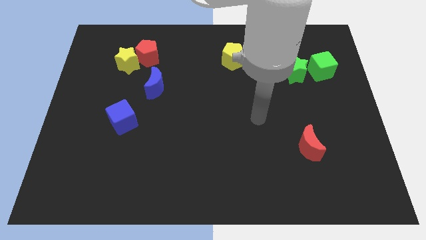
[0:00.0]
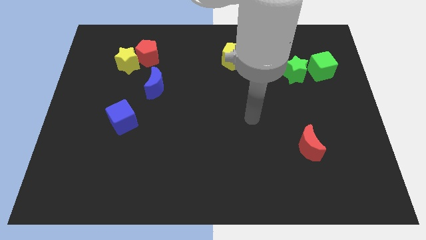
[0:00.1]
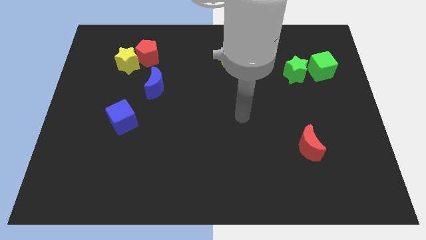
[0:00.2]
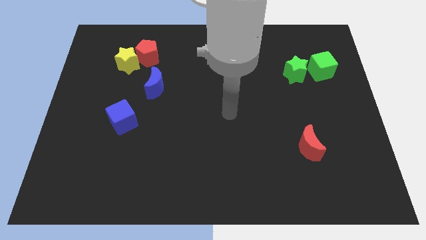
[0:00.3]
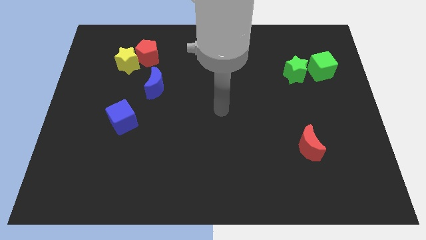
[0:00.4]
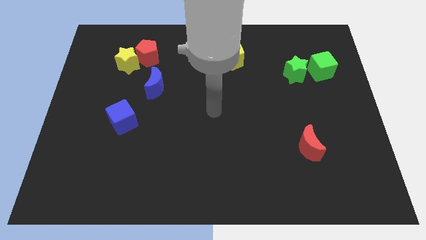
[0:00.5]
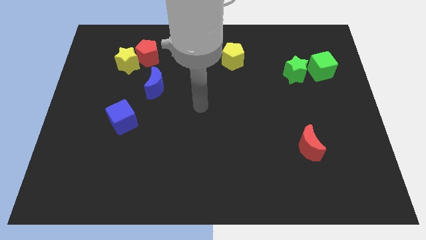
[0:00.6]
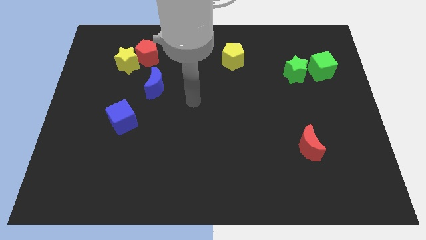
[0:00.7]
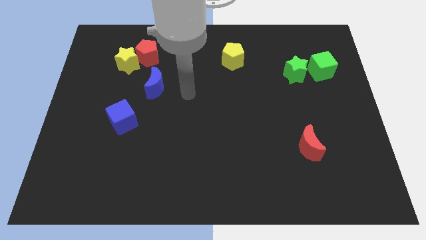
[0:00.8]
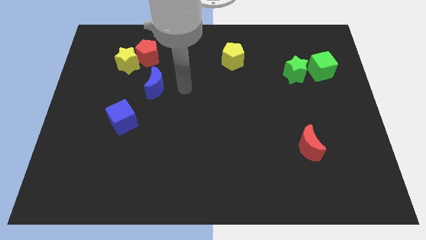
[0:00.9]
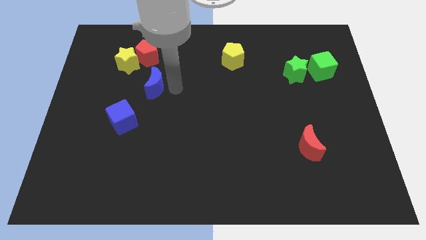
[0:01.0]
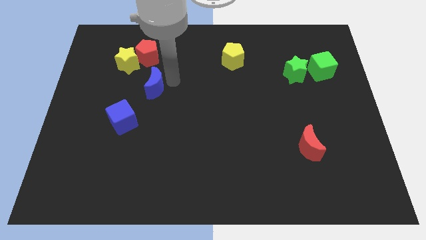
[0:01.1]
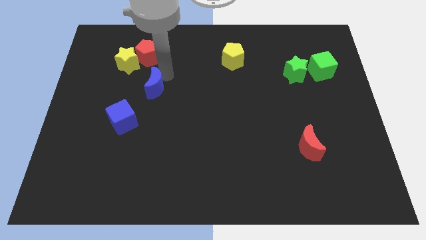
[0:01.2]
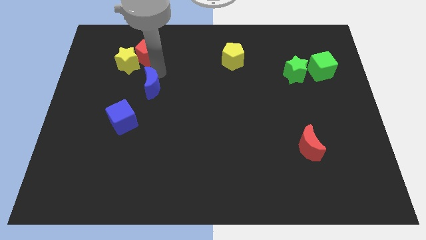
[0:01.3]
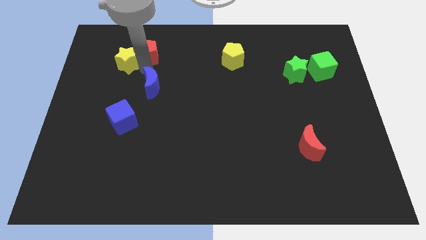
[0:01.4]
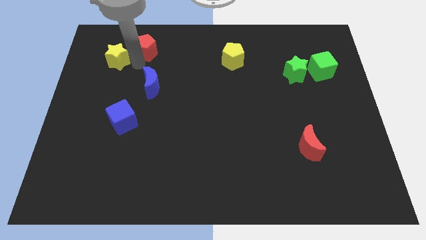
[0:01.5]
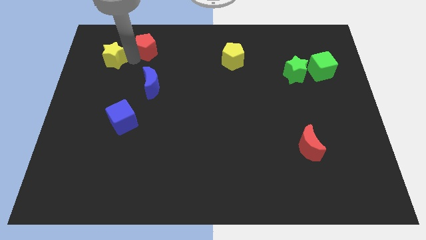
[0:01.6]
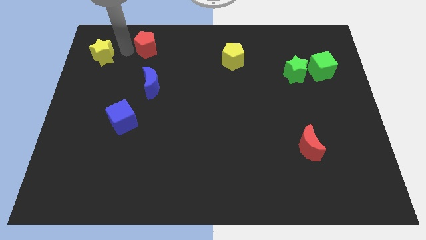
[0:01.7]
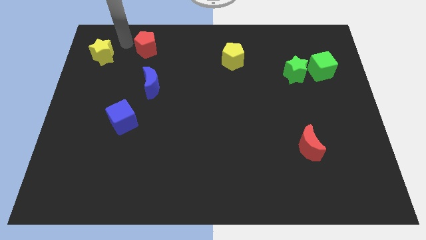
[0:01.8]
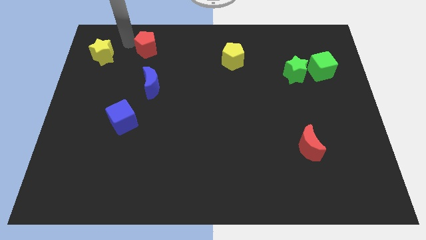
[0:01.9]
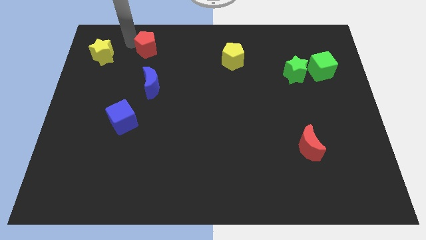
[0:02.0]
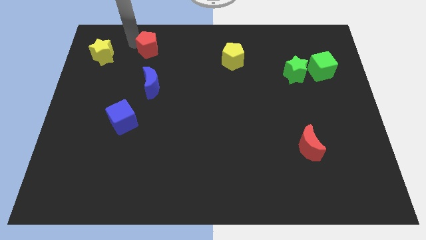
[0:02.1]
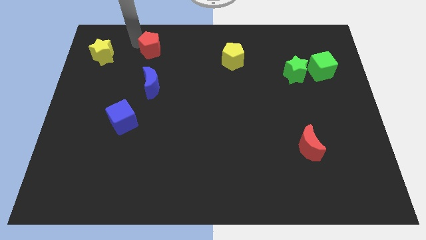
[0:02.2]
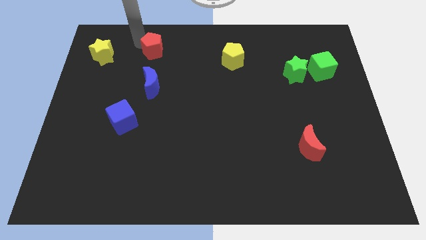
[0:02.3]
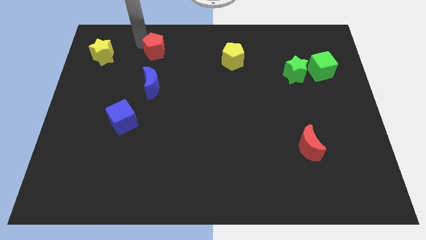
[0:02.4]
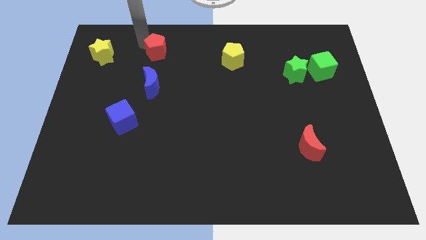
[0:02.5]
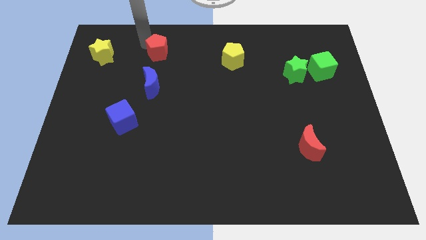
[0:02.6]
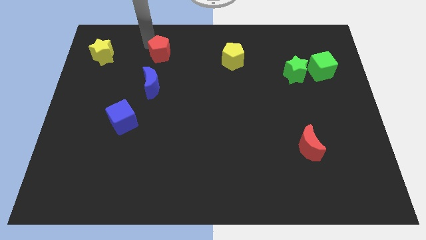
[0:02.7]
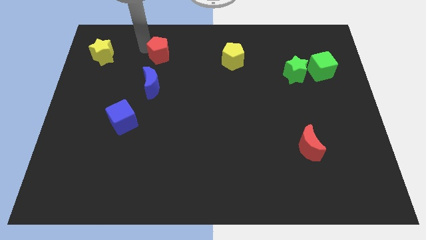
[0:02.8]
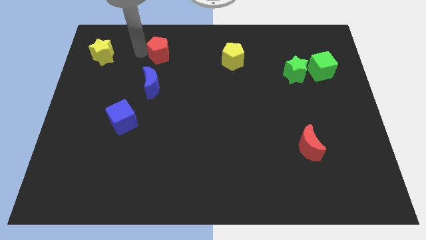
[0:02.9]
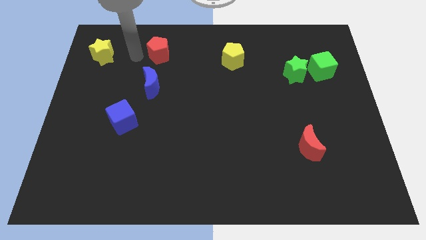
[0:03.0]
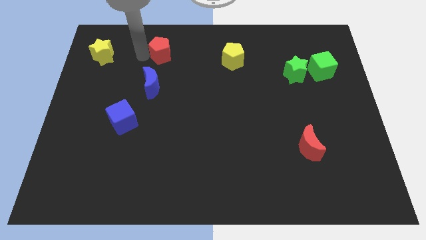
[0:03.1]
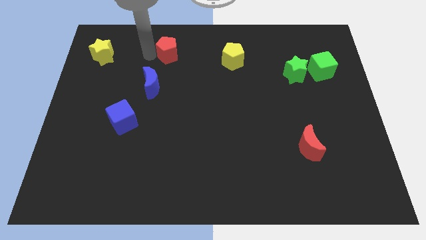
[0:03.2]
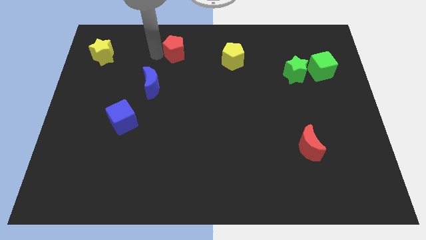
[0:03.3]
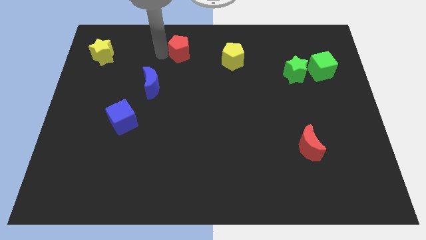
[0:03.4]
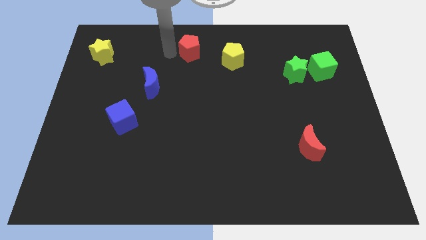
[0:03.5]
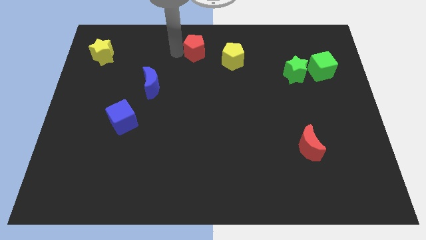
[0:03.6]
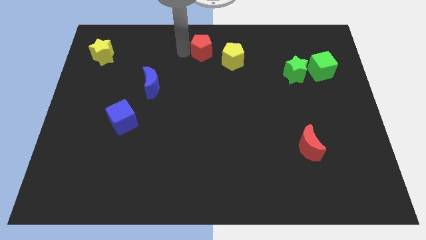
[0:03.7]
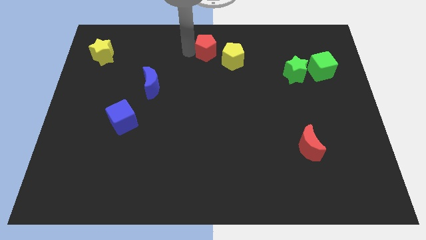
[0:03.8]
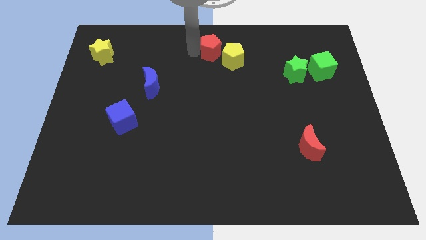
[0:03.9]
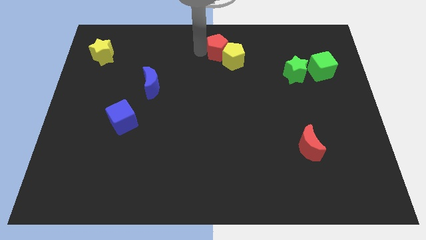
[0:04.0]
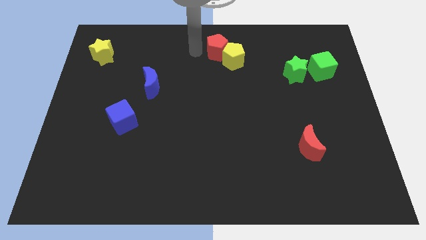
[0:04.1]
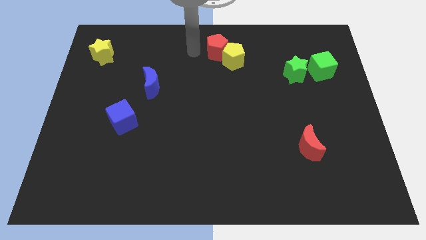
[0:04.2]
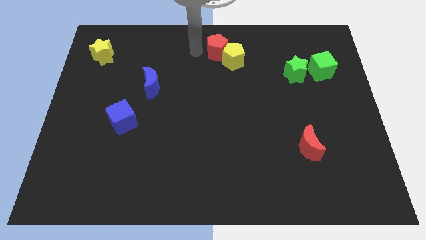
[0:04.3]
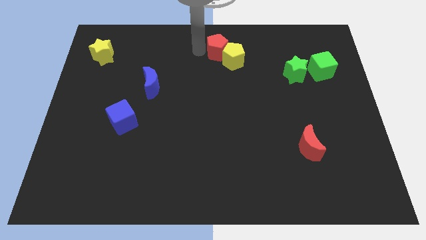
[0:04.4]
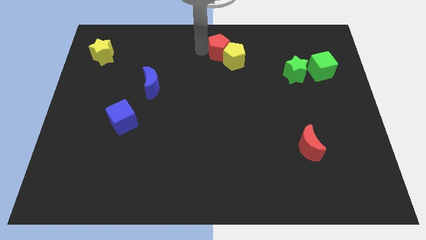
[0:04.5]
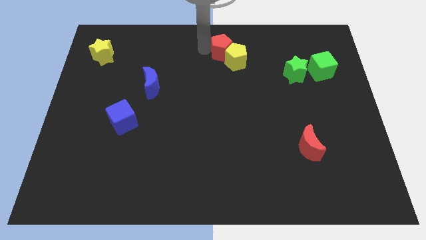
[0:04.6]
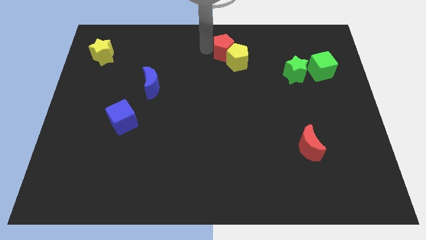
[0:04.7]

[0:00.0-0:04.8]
move the red pentagon to the right

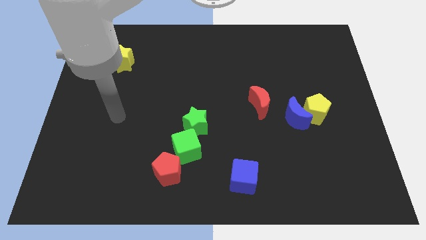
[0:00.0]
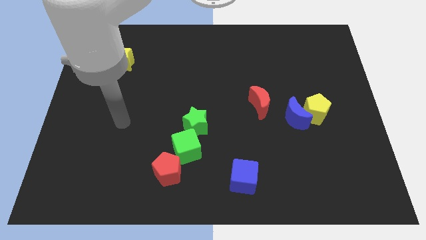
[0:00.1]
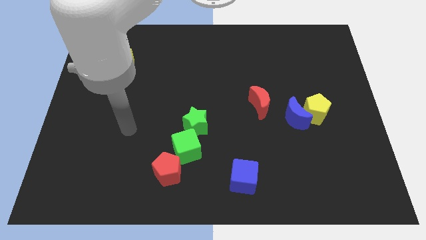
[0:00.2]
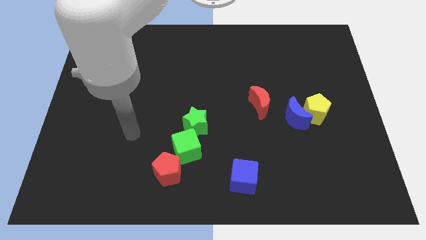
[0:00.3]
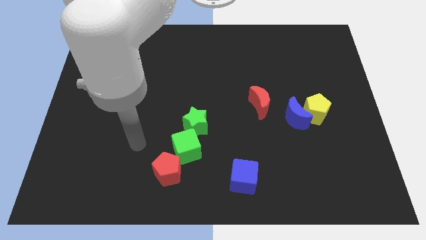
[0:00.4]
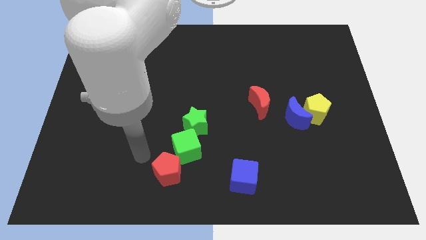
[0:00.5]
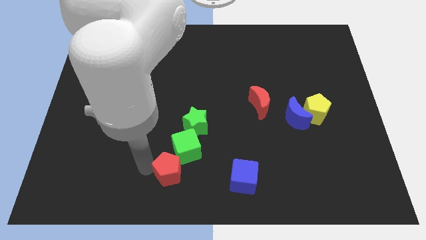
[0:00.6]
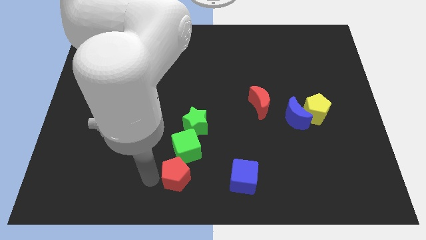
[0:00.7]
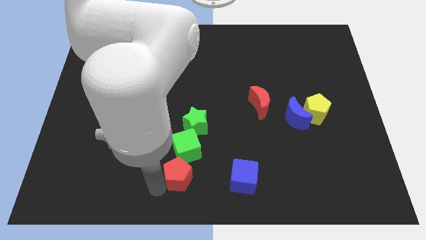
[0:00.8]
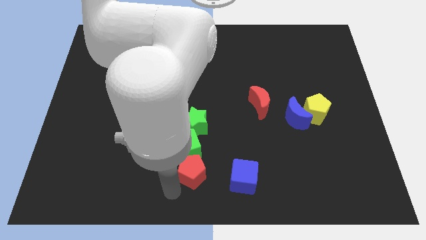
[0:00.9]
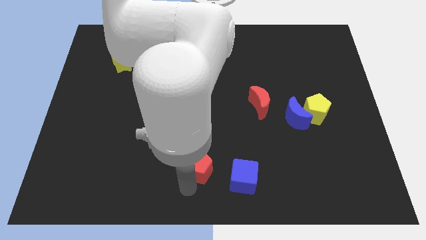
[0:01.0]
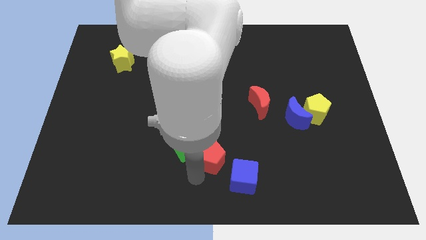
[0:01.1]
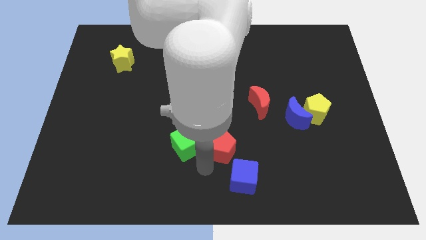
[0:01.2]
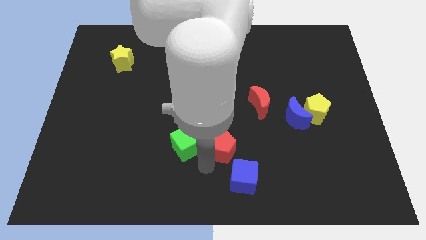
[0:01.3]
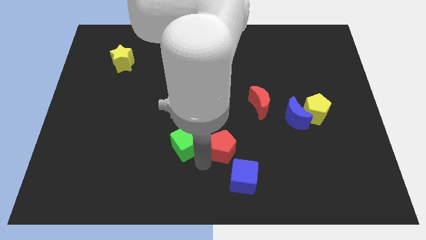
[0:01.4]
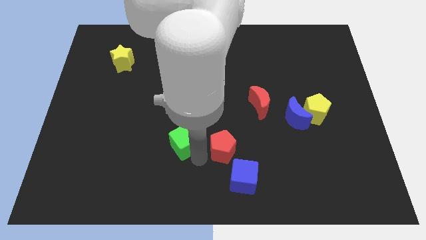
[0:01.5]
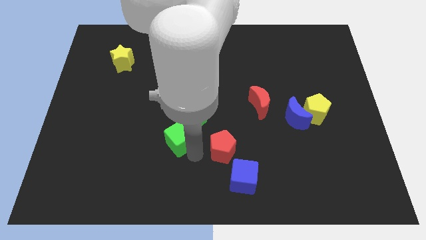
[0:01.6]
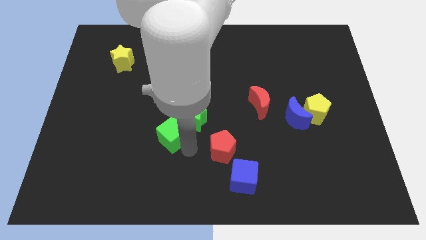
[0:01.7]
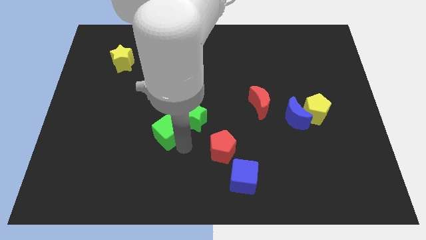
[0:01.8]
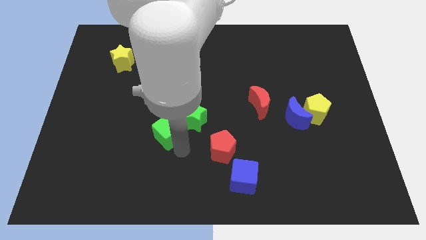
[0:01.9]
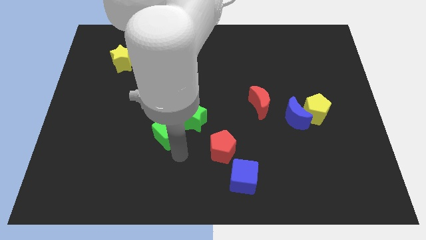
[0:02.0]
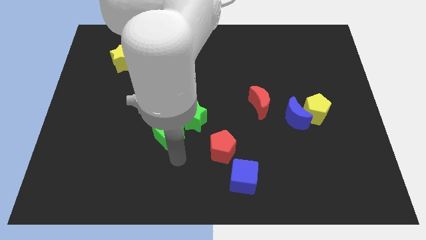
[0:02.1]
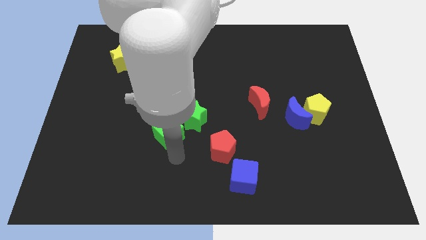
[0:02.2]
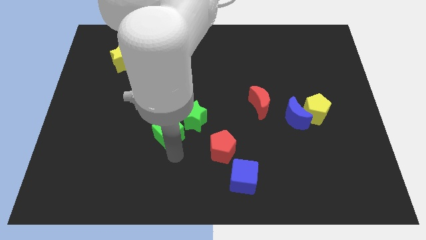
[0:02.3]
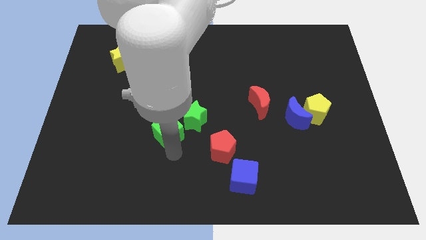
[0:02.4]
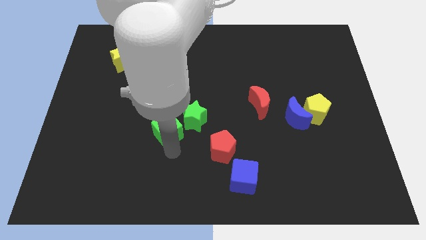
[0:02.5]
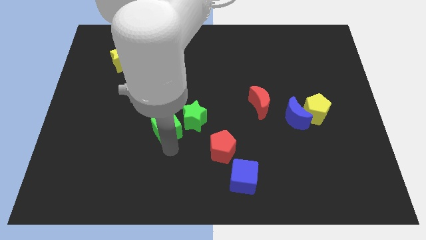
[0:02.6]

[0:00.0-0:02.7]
slightly push the green cube upwards and left diagonally
